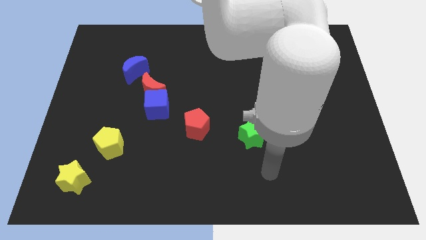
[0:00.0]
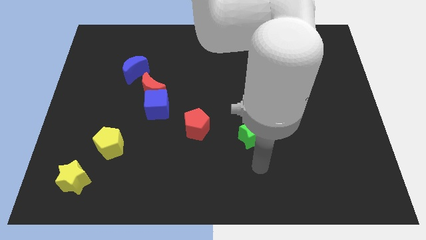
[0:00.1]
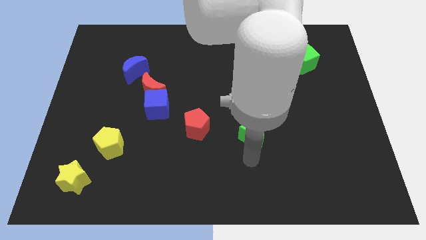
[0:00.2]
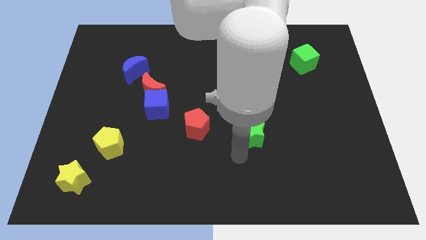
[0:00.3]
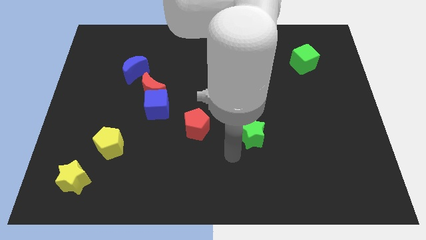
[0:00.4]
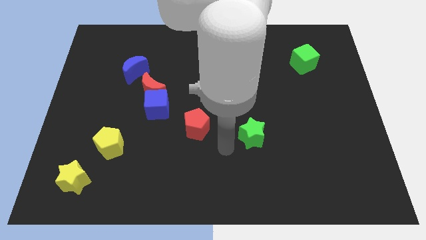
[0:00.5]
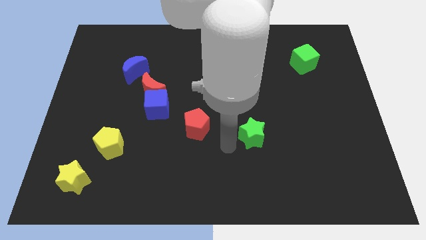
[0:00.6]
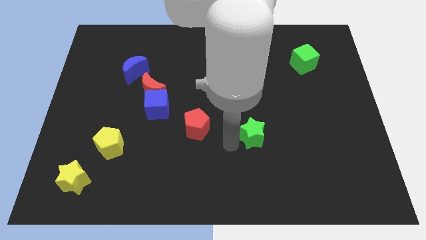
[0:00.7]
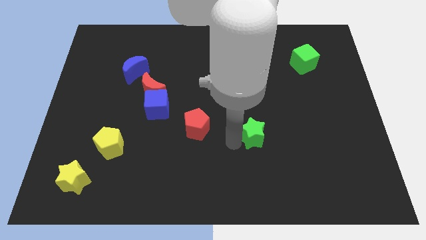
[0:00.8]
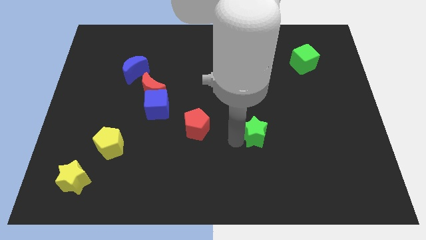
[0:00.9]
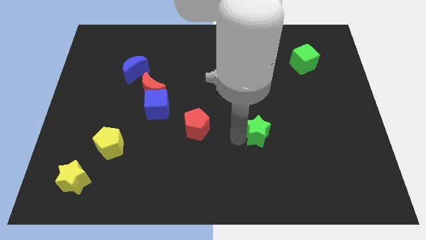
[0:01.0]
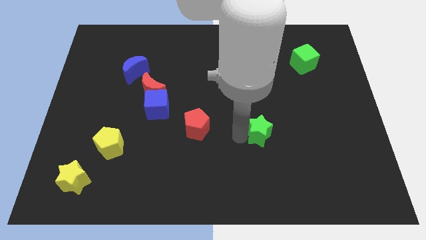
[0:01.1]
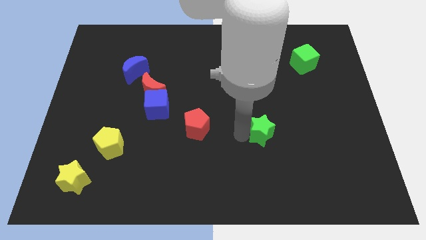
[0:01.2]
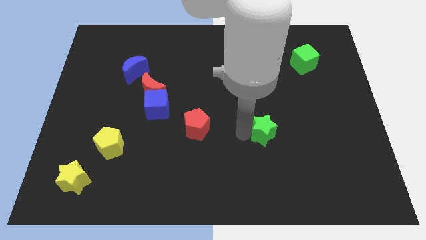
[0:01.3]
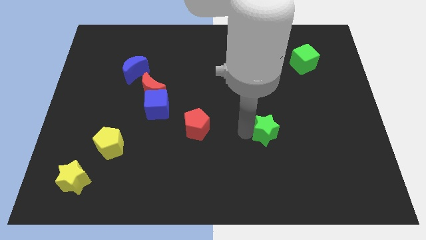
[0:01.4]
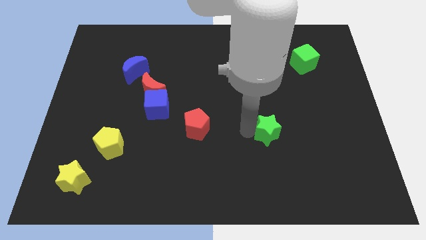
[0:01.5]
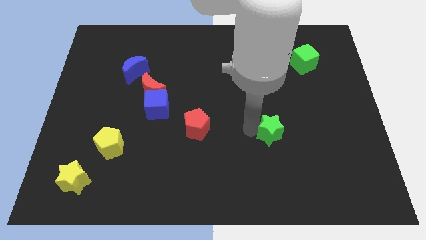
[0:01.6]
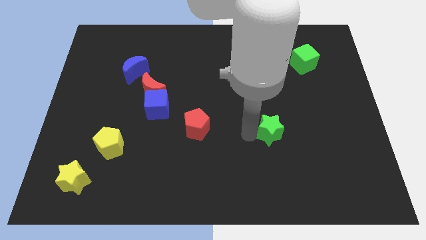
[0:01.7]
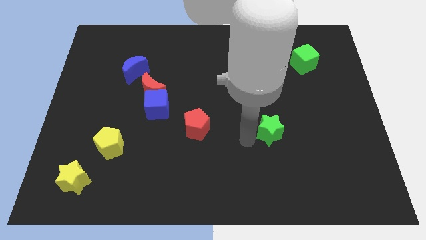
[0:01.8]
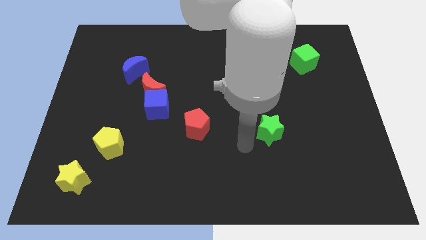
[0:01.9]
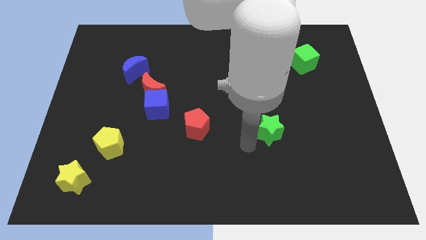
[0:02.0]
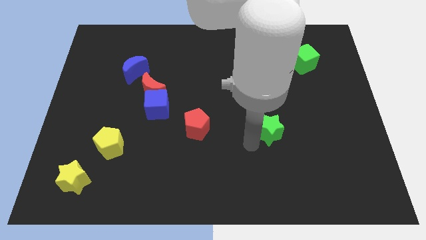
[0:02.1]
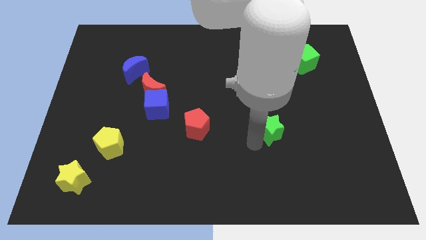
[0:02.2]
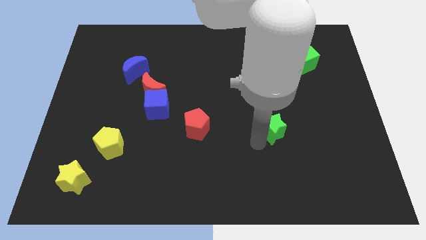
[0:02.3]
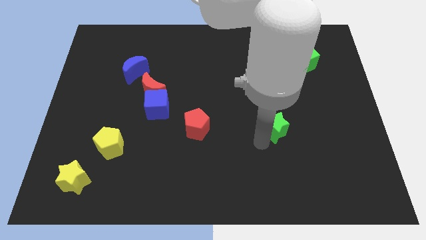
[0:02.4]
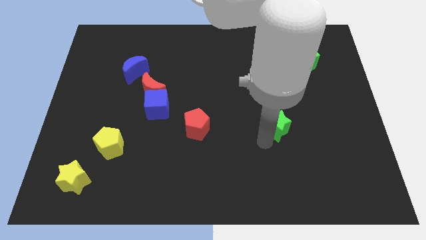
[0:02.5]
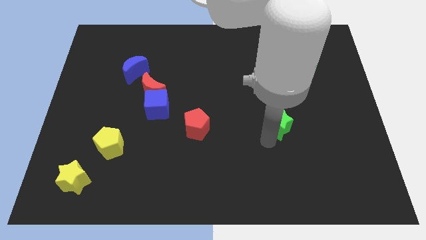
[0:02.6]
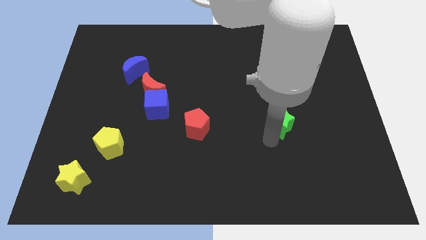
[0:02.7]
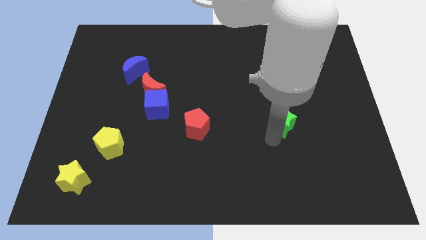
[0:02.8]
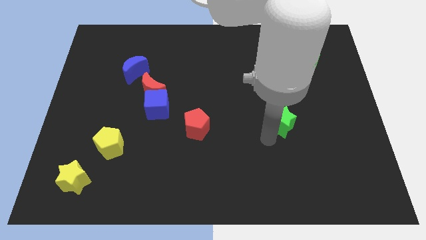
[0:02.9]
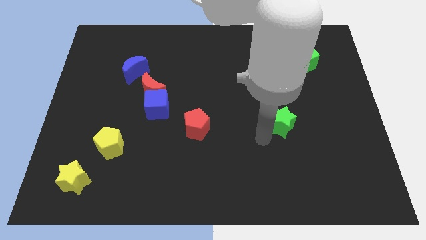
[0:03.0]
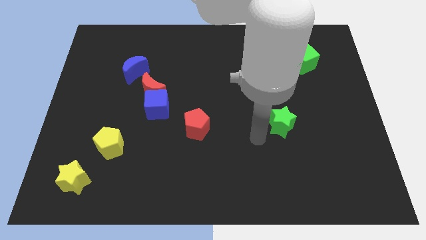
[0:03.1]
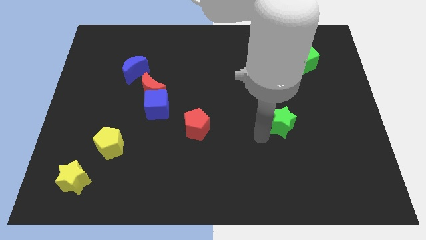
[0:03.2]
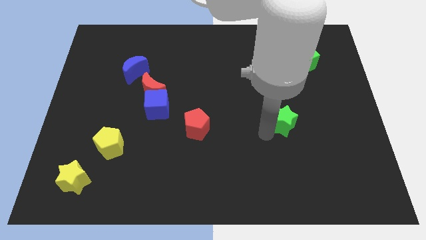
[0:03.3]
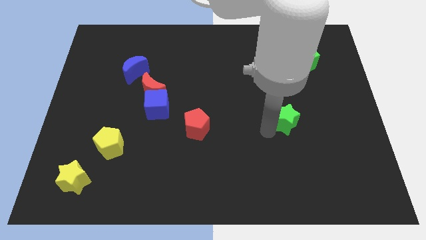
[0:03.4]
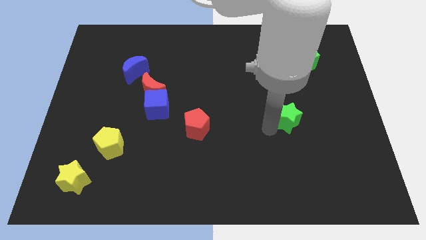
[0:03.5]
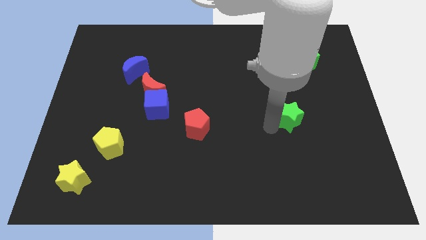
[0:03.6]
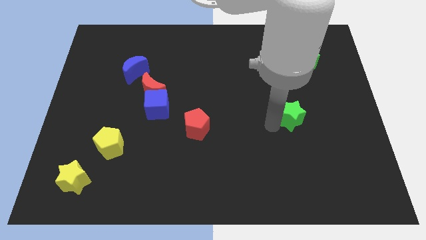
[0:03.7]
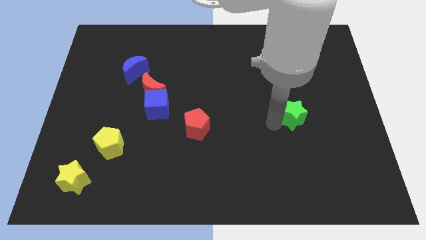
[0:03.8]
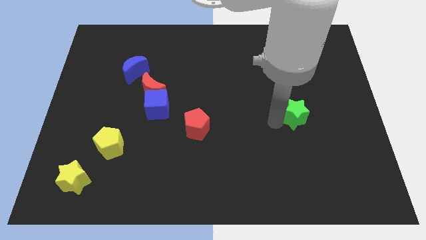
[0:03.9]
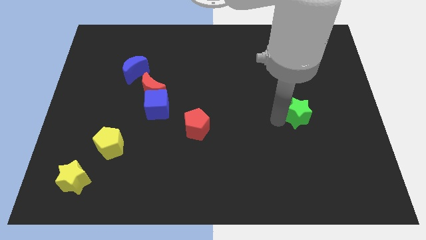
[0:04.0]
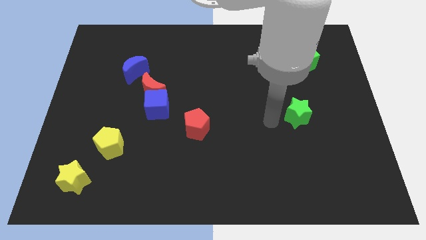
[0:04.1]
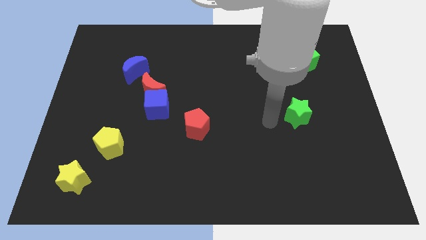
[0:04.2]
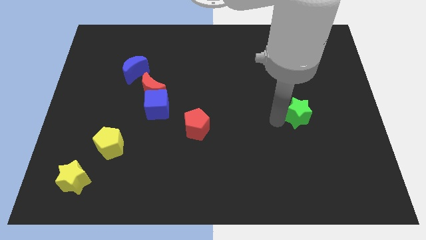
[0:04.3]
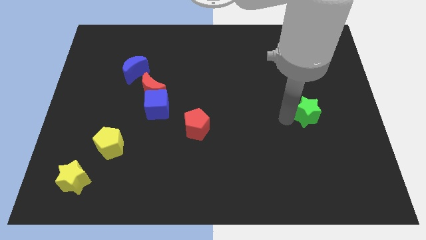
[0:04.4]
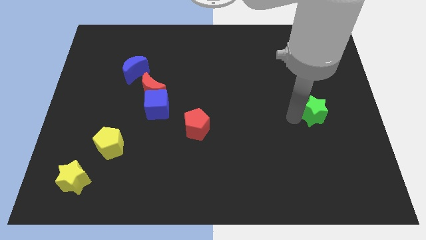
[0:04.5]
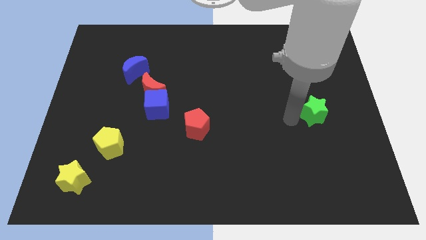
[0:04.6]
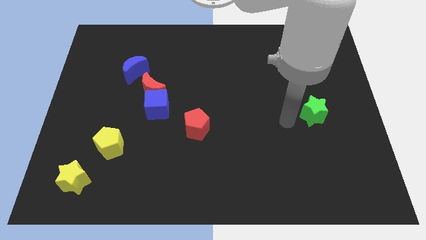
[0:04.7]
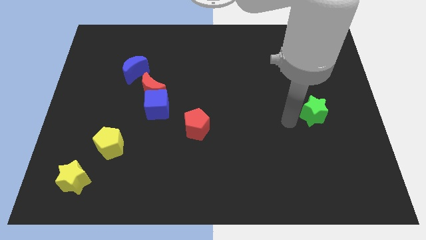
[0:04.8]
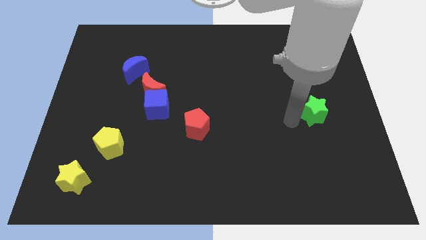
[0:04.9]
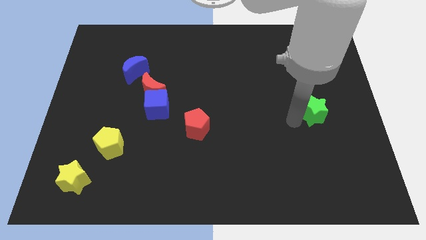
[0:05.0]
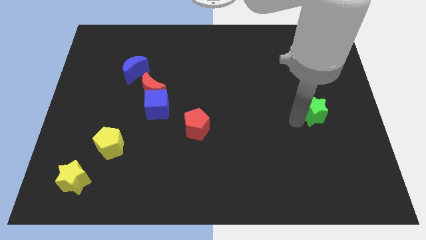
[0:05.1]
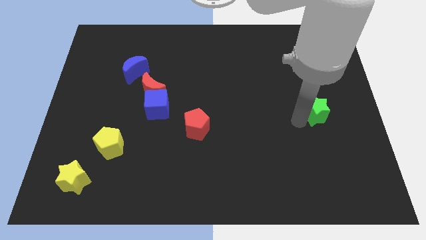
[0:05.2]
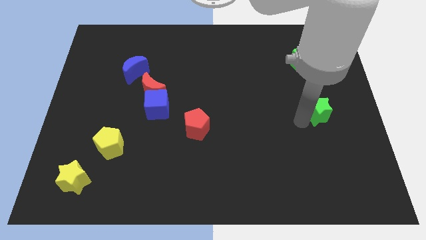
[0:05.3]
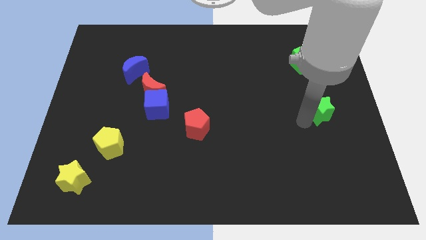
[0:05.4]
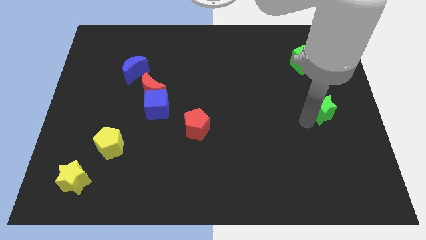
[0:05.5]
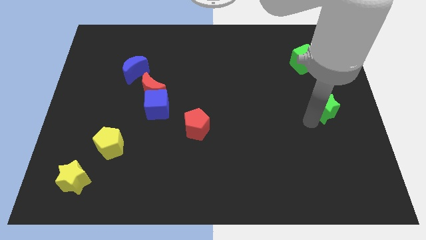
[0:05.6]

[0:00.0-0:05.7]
put the green star to the center right

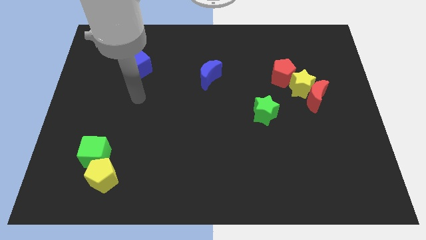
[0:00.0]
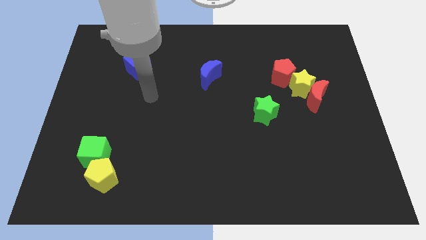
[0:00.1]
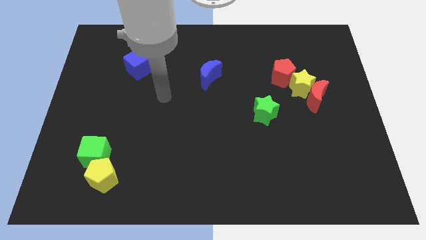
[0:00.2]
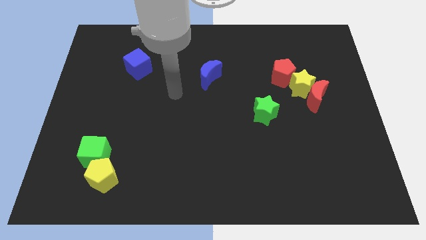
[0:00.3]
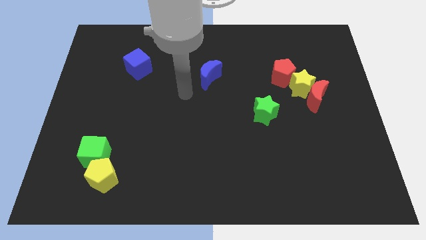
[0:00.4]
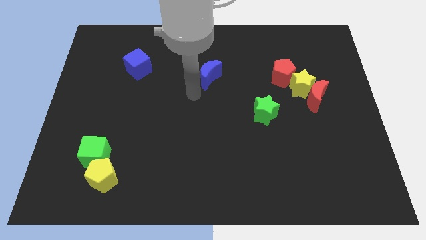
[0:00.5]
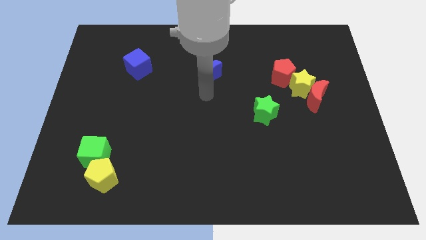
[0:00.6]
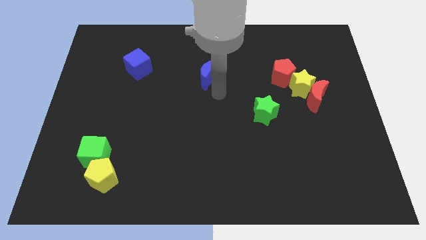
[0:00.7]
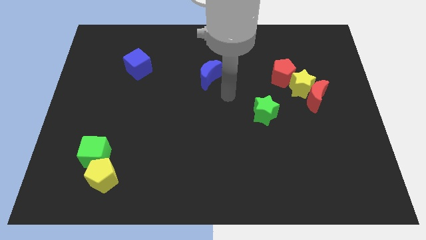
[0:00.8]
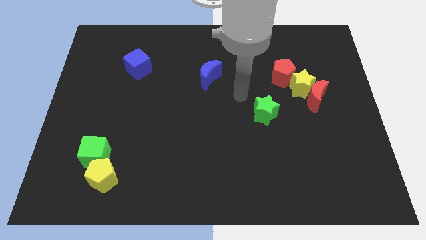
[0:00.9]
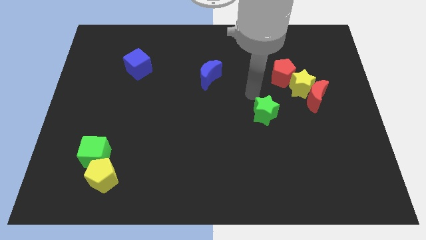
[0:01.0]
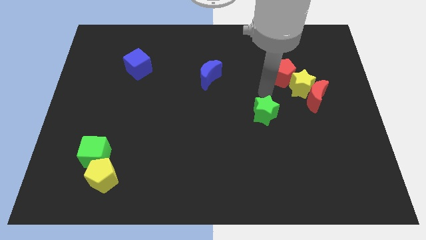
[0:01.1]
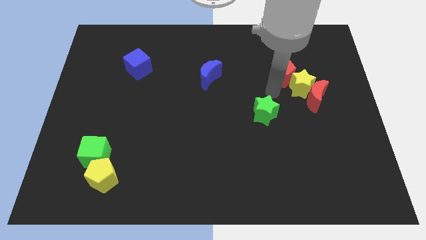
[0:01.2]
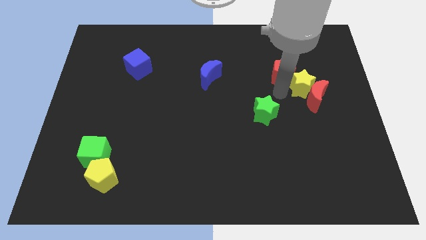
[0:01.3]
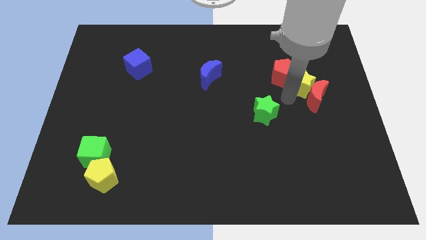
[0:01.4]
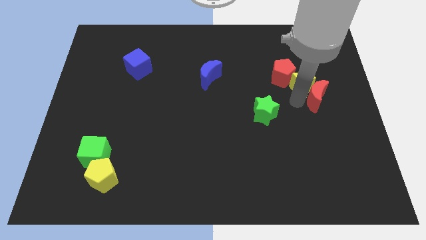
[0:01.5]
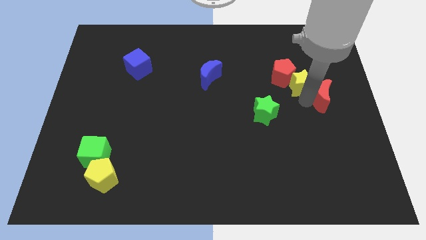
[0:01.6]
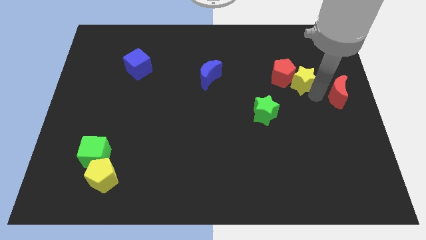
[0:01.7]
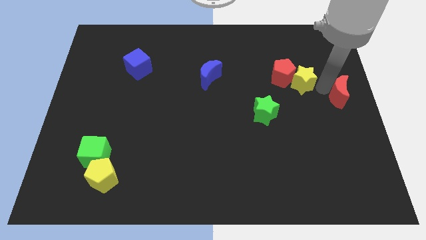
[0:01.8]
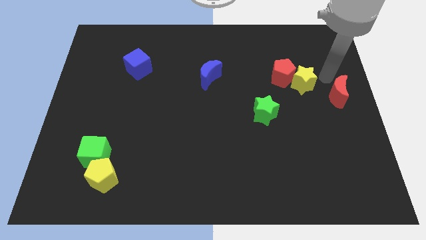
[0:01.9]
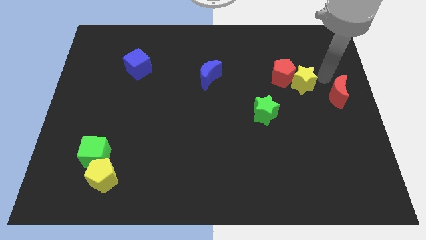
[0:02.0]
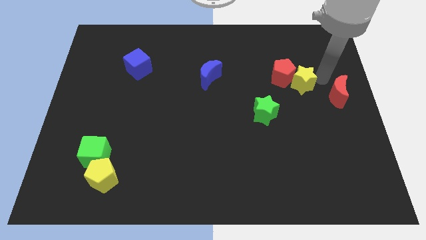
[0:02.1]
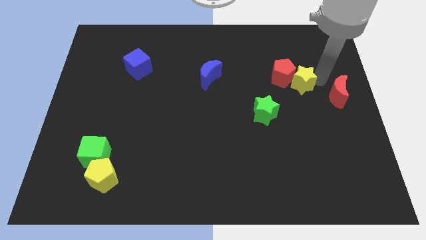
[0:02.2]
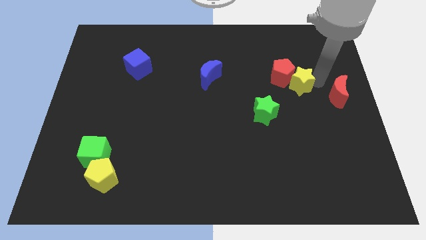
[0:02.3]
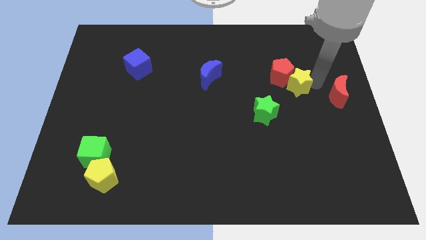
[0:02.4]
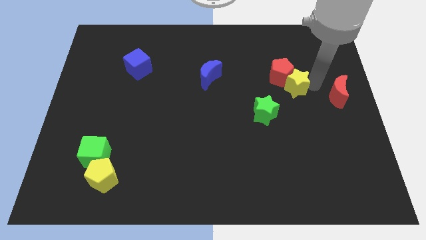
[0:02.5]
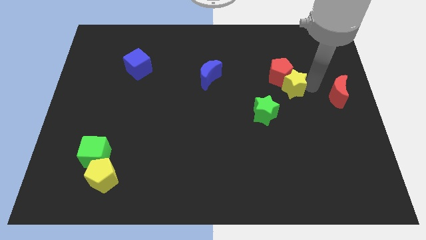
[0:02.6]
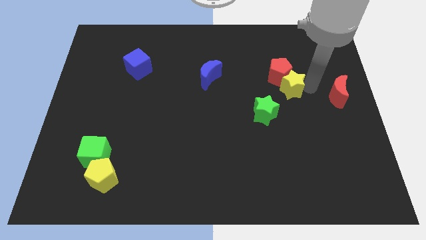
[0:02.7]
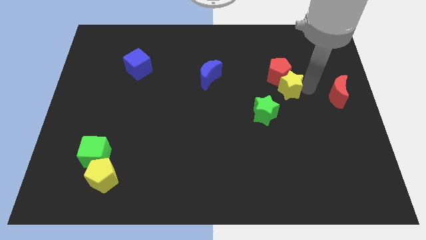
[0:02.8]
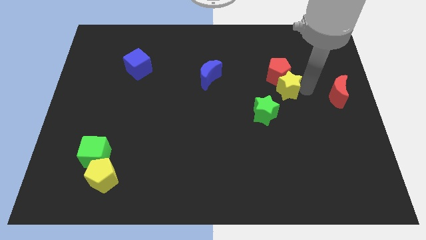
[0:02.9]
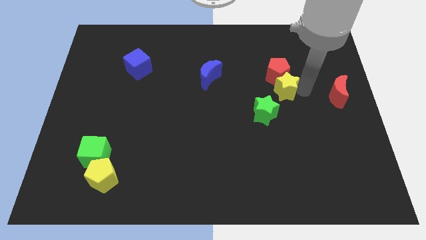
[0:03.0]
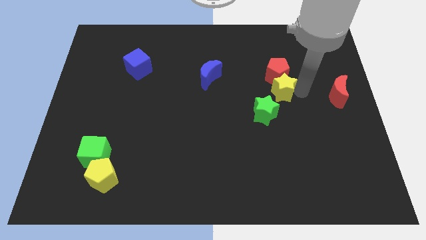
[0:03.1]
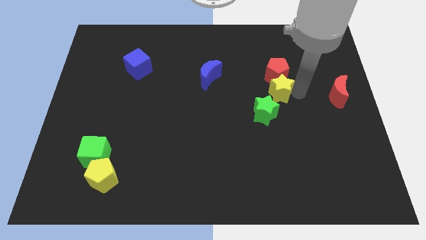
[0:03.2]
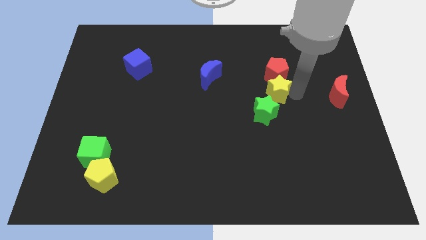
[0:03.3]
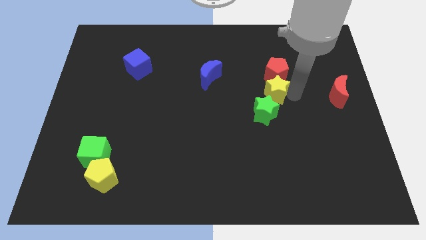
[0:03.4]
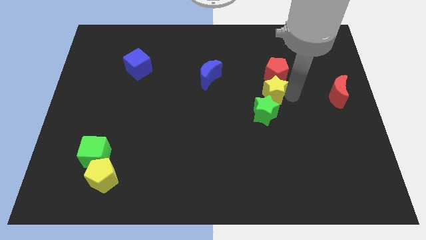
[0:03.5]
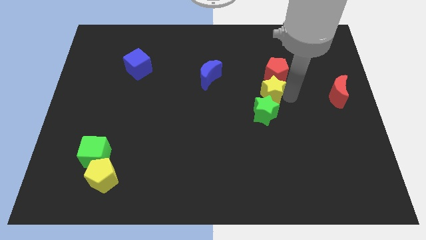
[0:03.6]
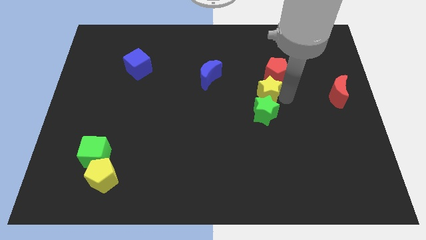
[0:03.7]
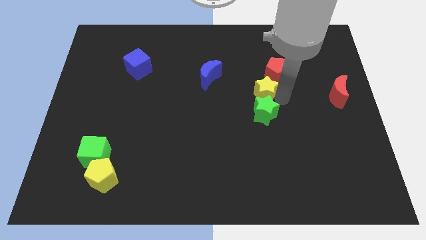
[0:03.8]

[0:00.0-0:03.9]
slide the yellow star to the center
